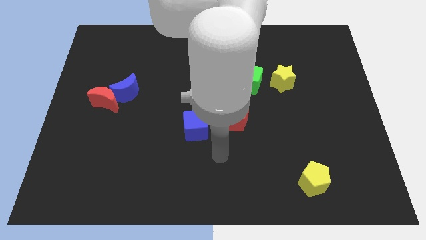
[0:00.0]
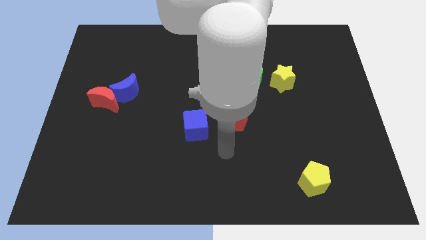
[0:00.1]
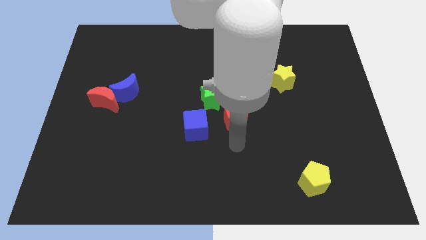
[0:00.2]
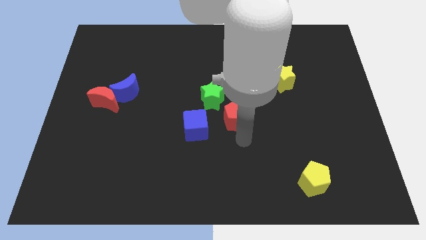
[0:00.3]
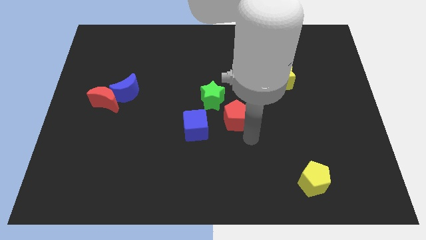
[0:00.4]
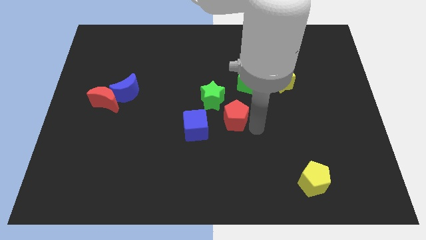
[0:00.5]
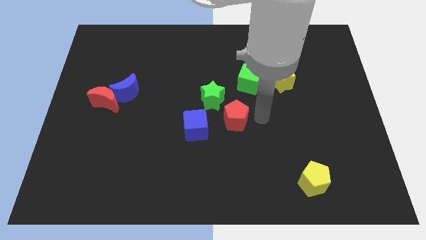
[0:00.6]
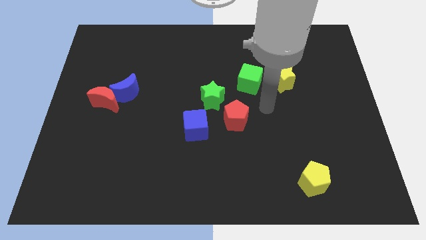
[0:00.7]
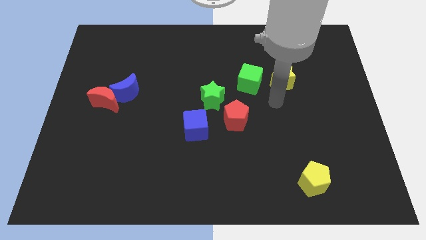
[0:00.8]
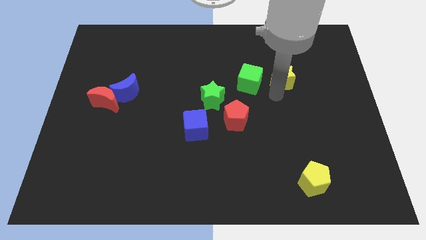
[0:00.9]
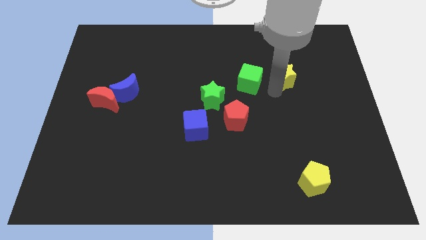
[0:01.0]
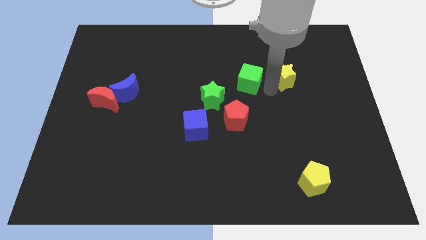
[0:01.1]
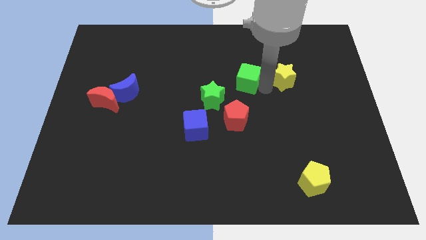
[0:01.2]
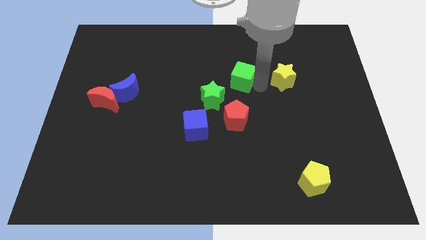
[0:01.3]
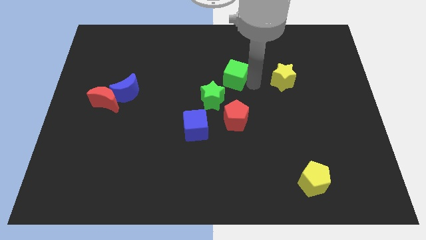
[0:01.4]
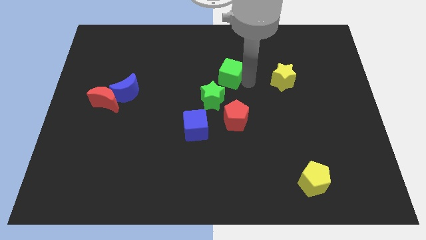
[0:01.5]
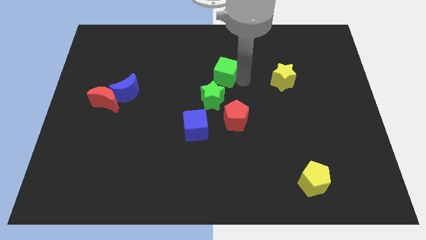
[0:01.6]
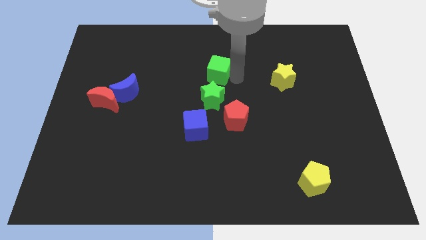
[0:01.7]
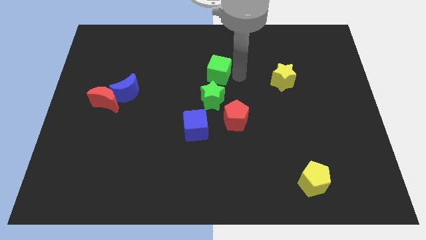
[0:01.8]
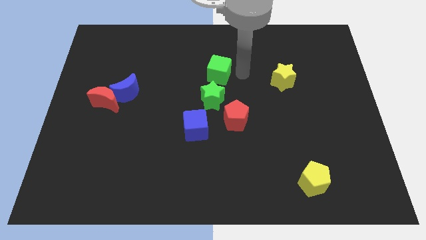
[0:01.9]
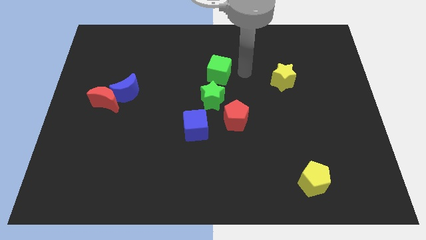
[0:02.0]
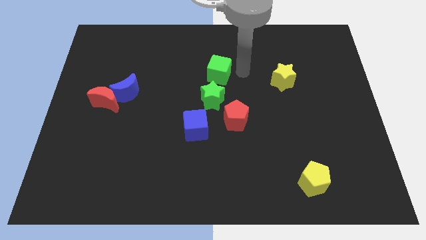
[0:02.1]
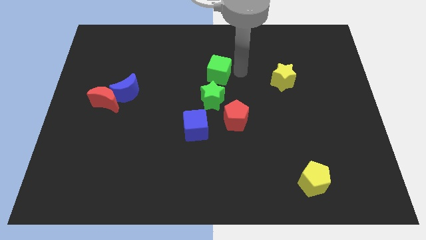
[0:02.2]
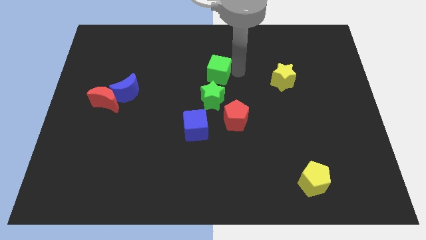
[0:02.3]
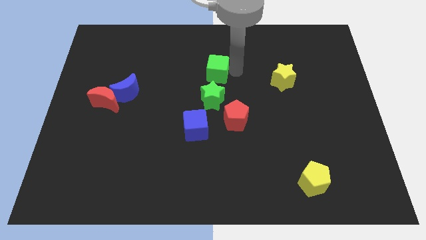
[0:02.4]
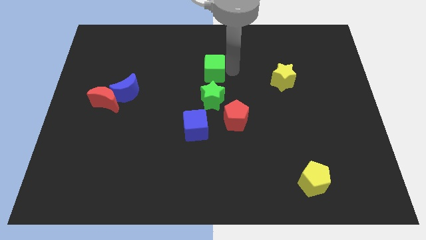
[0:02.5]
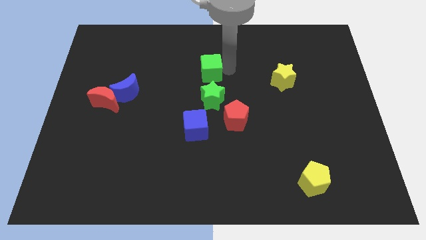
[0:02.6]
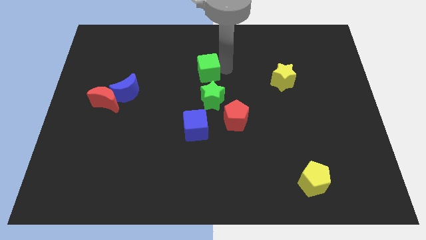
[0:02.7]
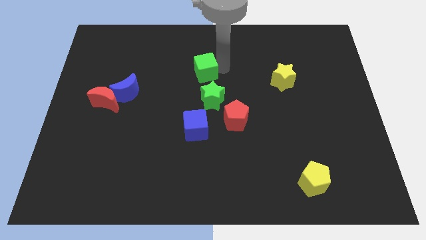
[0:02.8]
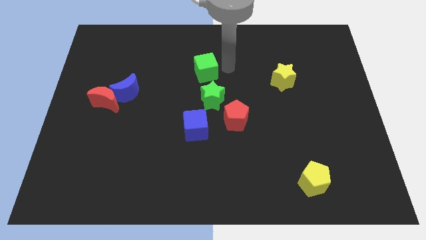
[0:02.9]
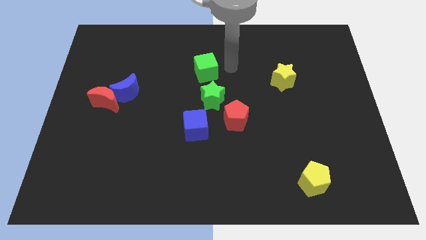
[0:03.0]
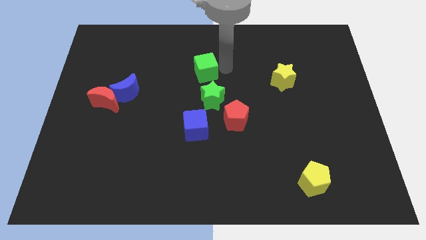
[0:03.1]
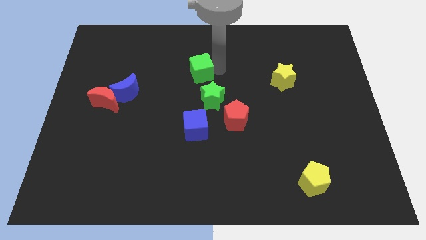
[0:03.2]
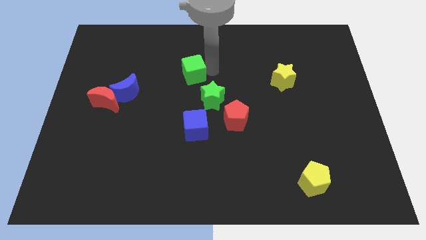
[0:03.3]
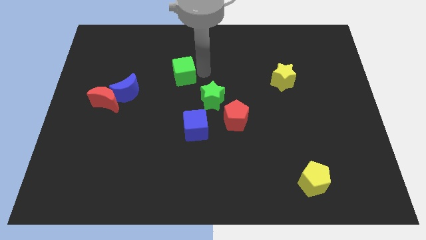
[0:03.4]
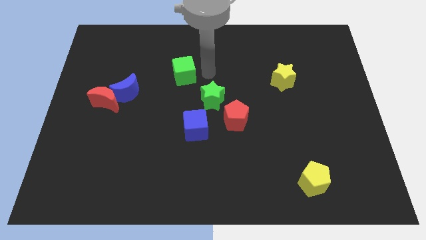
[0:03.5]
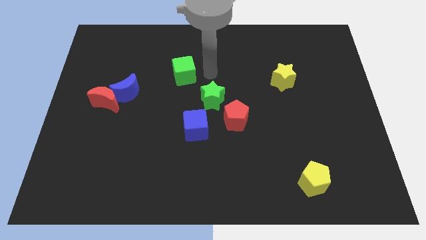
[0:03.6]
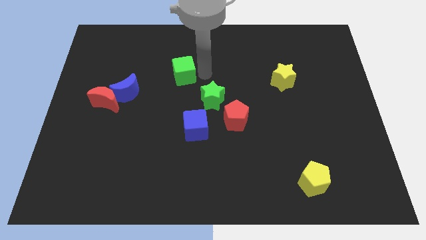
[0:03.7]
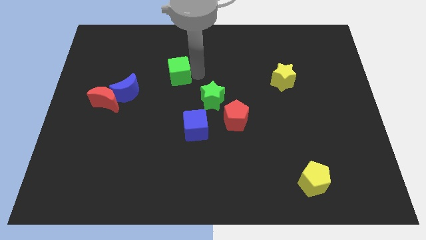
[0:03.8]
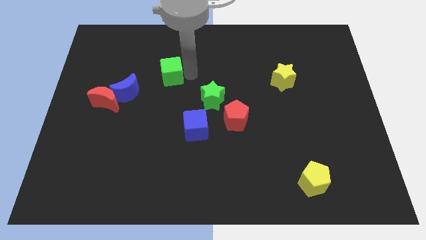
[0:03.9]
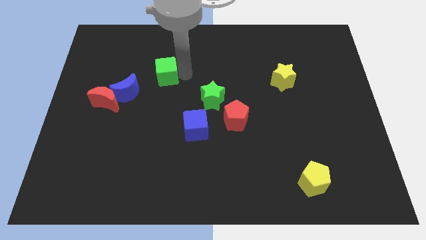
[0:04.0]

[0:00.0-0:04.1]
move the green cube left

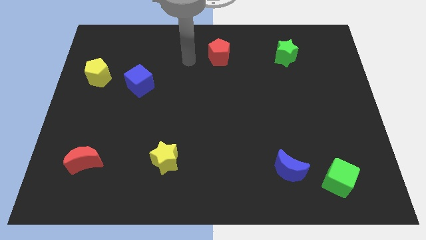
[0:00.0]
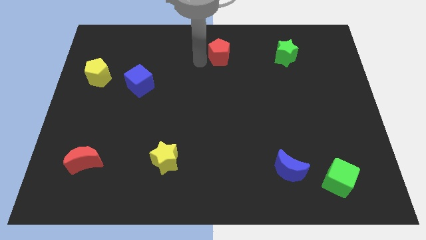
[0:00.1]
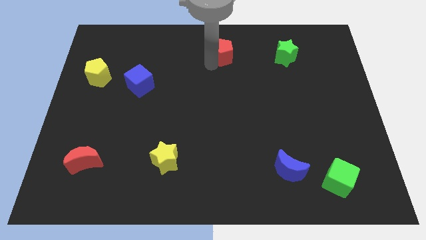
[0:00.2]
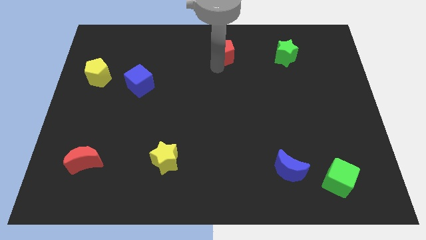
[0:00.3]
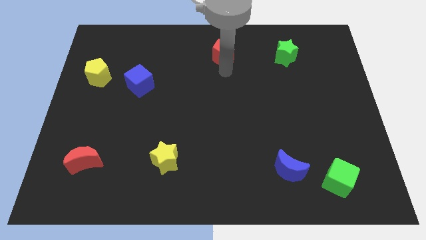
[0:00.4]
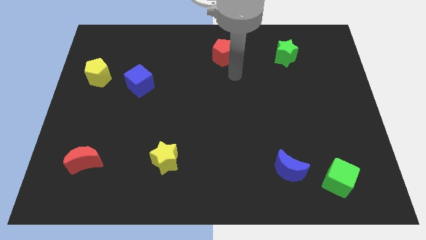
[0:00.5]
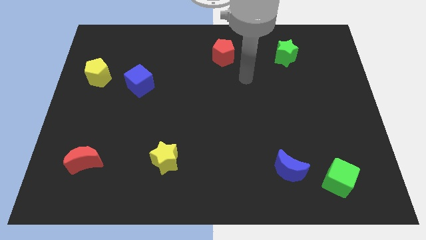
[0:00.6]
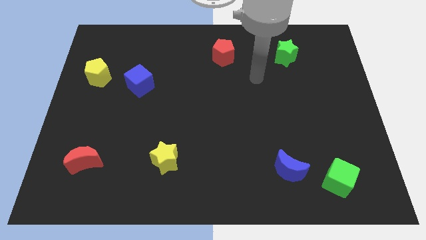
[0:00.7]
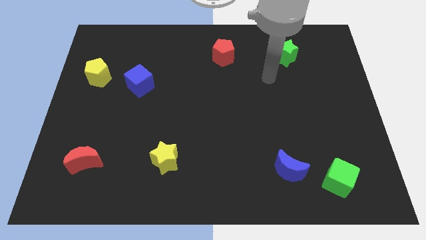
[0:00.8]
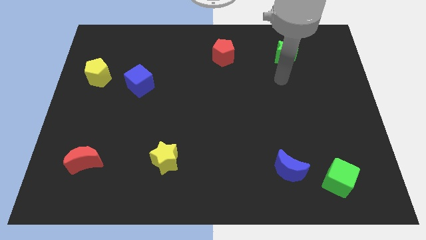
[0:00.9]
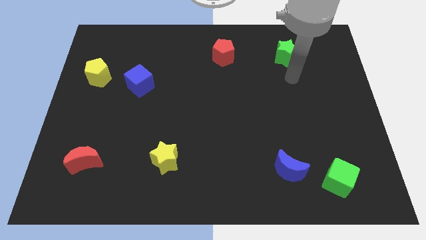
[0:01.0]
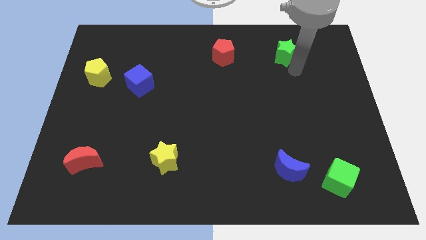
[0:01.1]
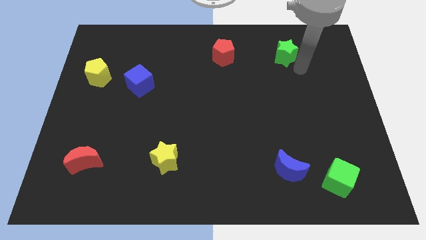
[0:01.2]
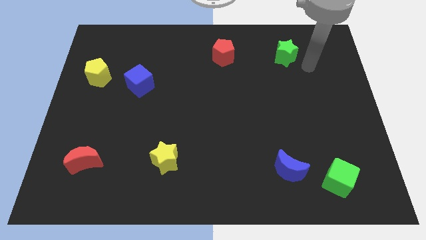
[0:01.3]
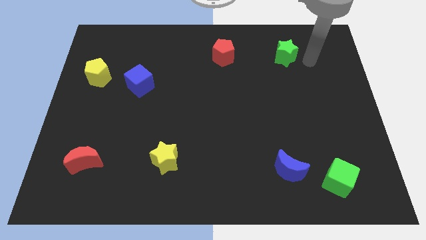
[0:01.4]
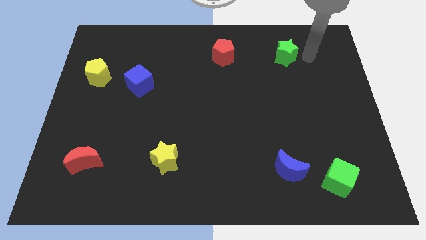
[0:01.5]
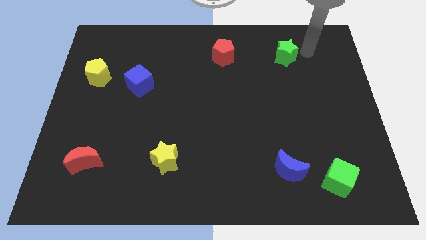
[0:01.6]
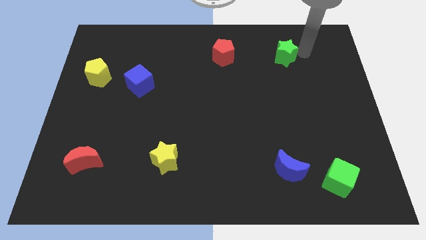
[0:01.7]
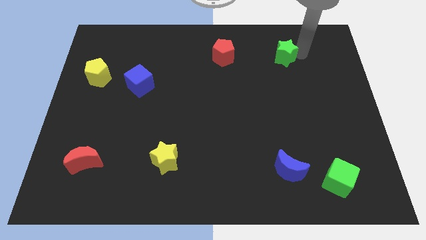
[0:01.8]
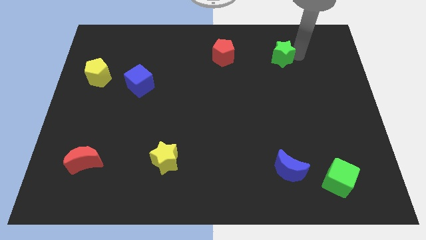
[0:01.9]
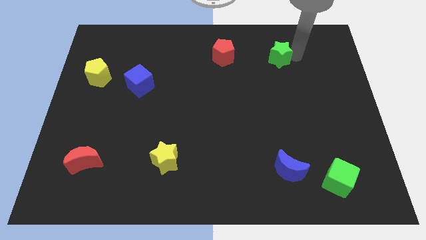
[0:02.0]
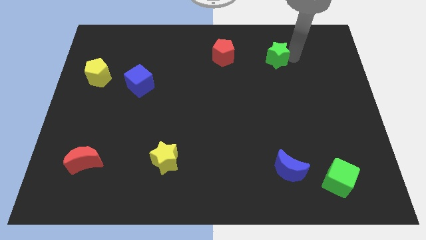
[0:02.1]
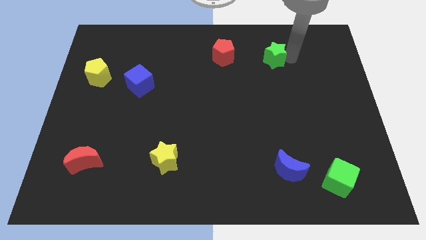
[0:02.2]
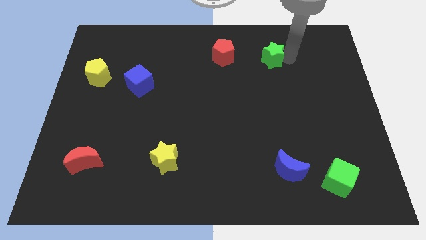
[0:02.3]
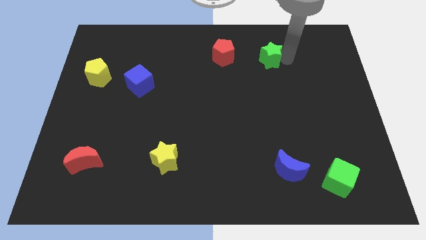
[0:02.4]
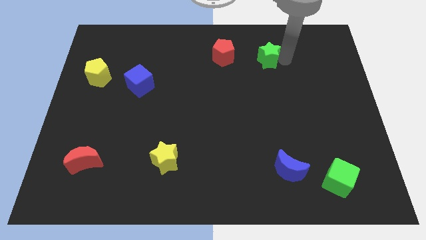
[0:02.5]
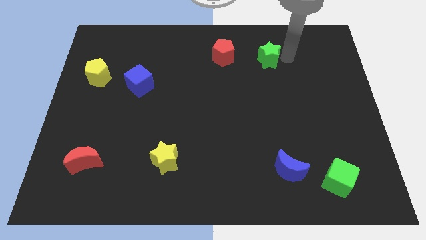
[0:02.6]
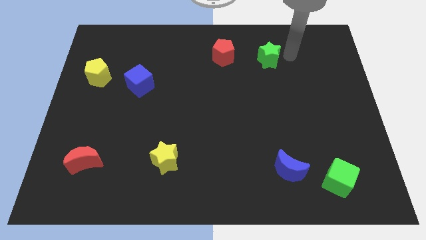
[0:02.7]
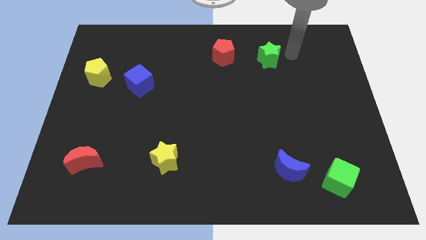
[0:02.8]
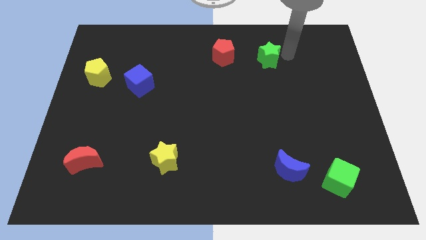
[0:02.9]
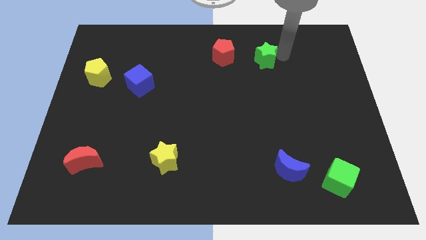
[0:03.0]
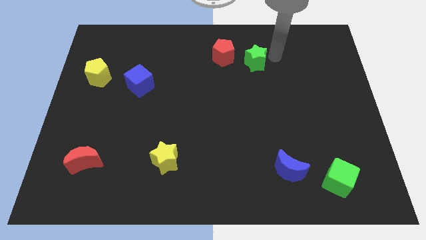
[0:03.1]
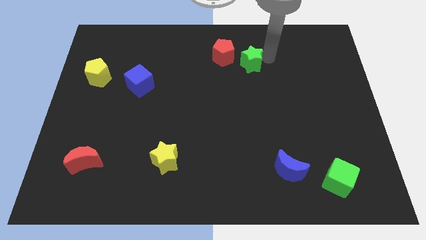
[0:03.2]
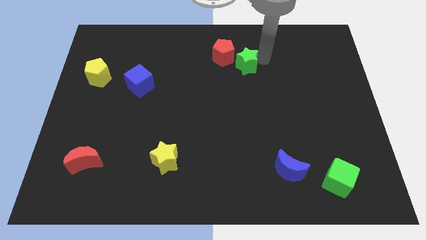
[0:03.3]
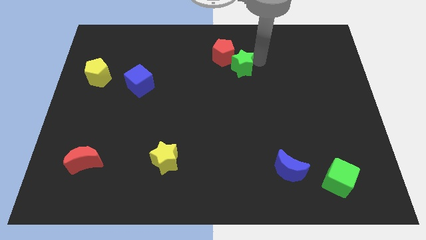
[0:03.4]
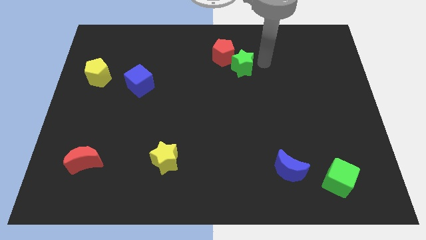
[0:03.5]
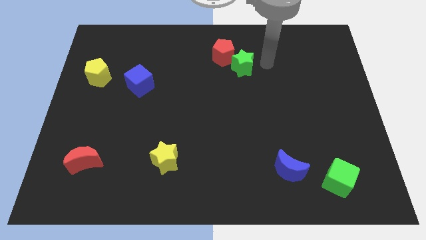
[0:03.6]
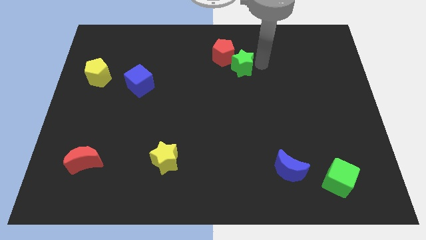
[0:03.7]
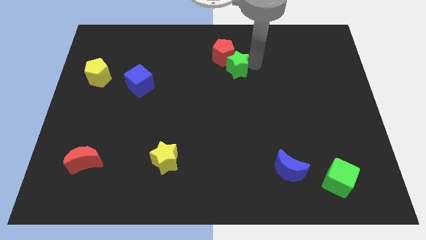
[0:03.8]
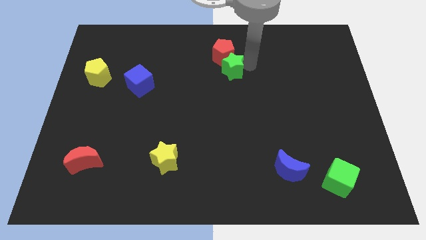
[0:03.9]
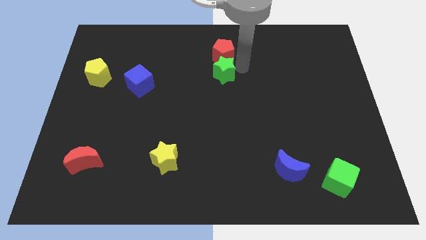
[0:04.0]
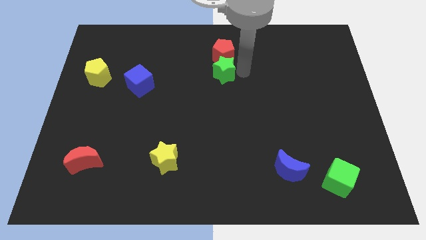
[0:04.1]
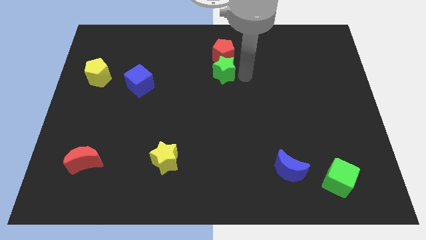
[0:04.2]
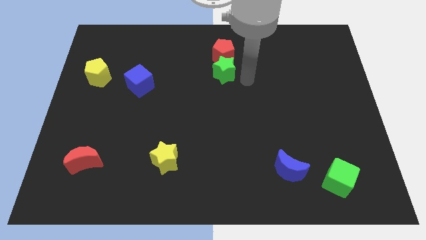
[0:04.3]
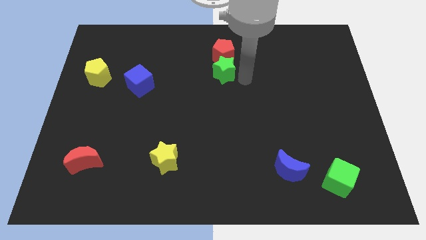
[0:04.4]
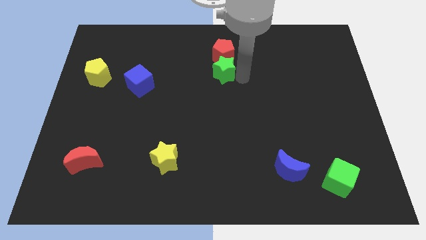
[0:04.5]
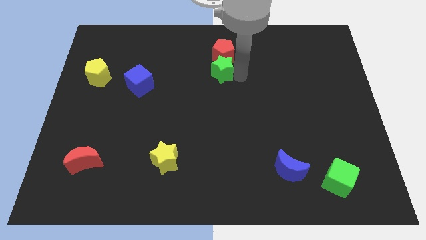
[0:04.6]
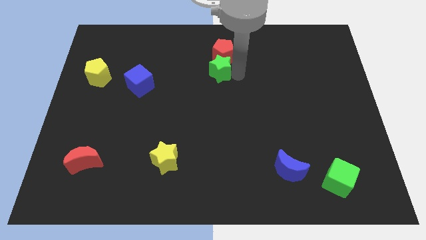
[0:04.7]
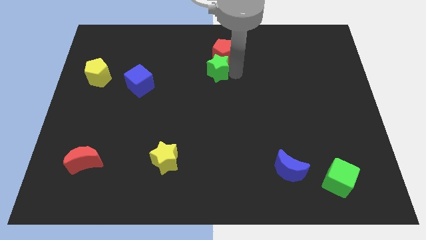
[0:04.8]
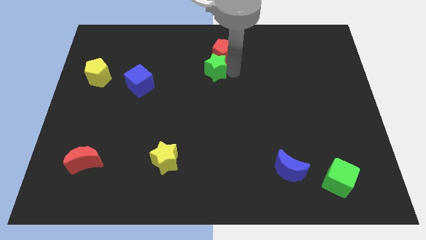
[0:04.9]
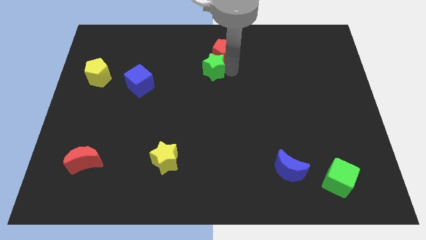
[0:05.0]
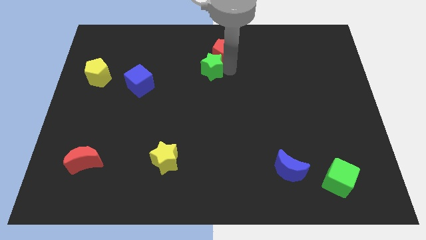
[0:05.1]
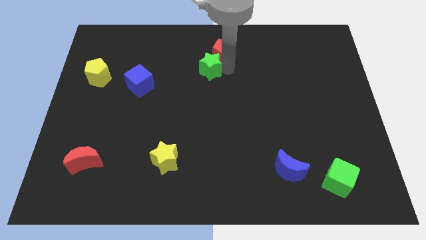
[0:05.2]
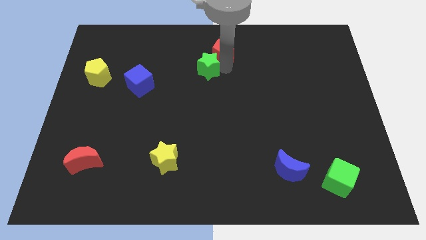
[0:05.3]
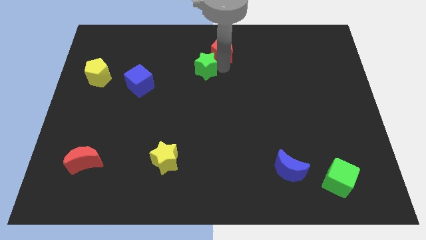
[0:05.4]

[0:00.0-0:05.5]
slide the green star to the left
